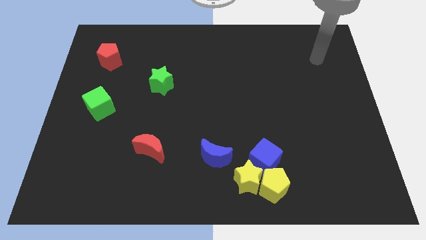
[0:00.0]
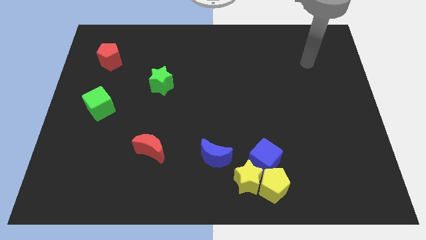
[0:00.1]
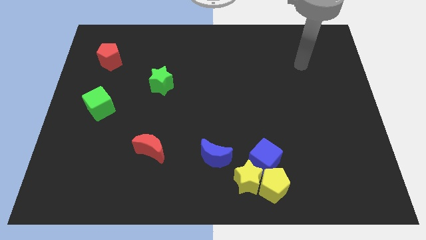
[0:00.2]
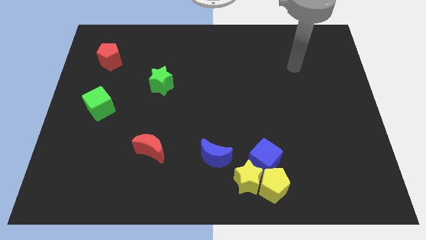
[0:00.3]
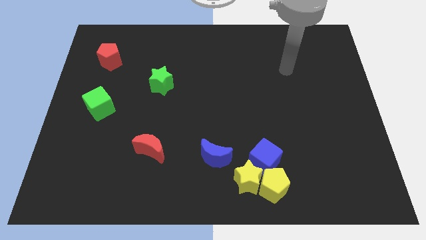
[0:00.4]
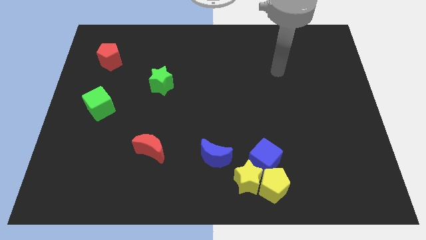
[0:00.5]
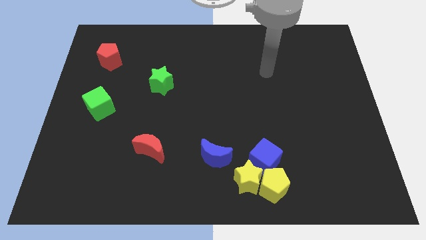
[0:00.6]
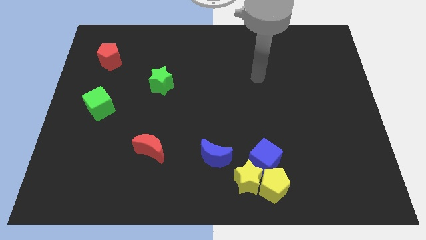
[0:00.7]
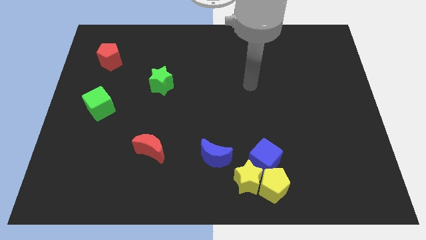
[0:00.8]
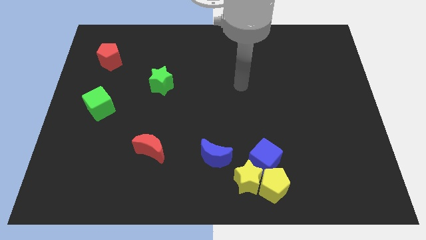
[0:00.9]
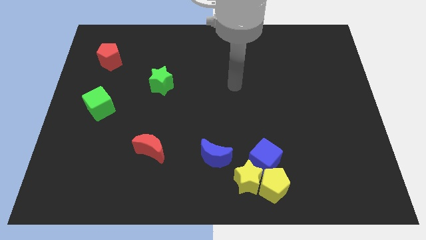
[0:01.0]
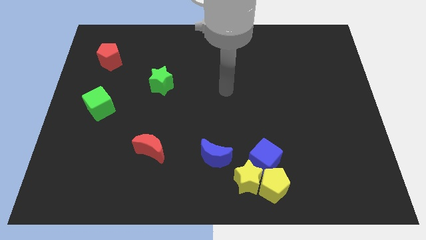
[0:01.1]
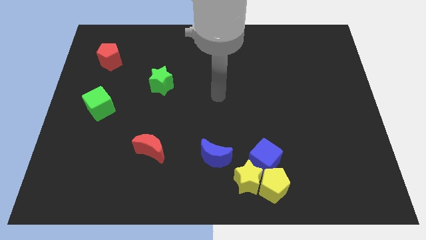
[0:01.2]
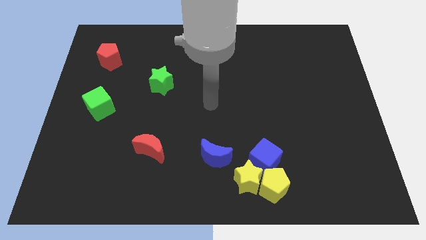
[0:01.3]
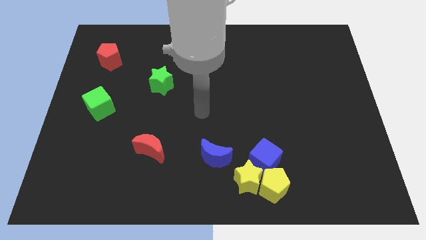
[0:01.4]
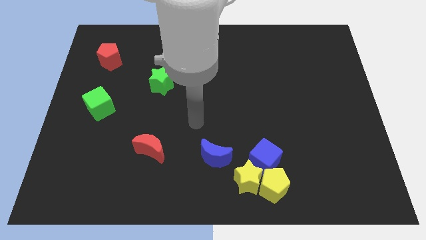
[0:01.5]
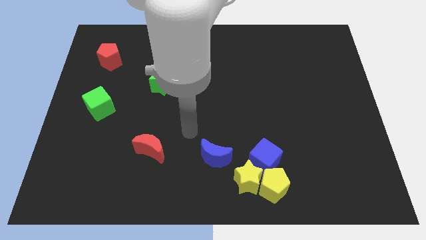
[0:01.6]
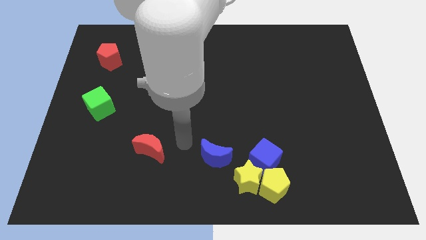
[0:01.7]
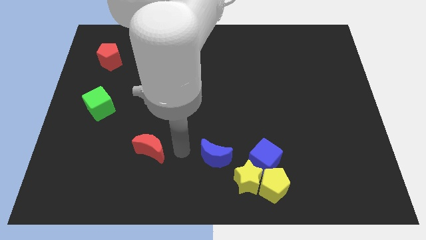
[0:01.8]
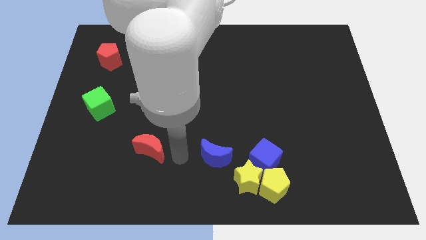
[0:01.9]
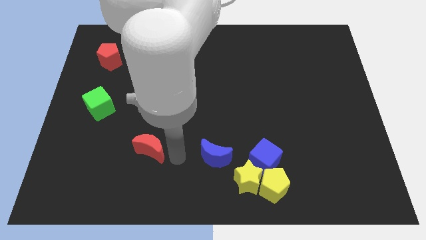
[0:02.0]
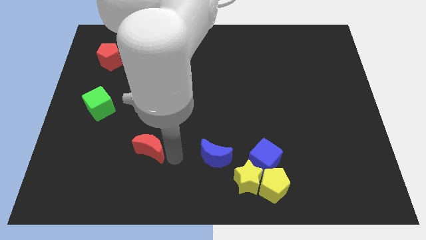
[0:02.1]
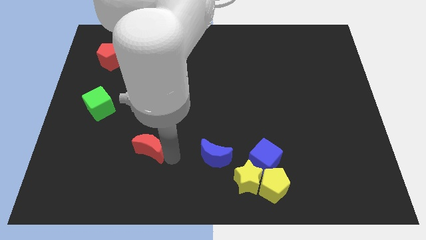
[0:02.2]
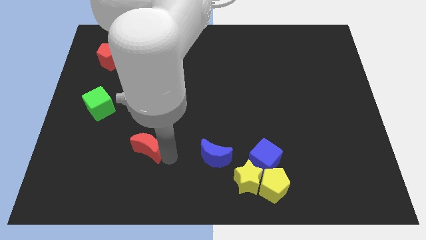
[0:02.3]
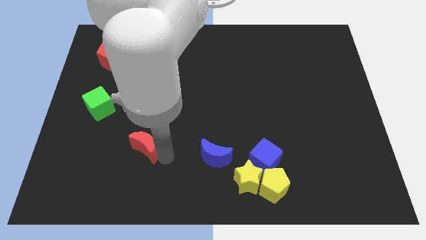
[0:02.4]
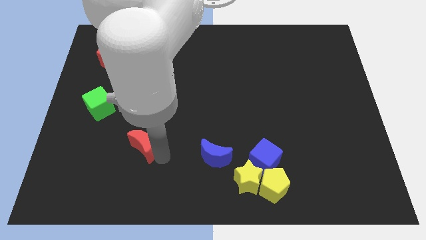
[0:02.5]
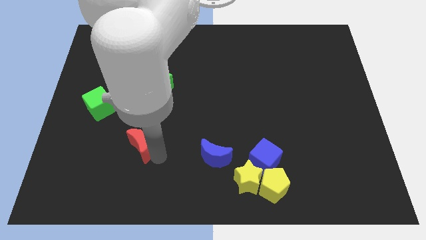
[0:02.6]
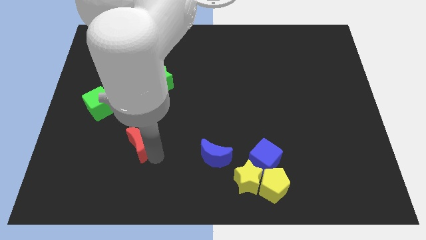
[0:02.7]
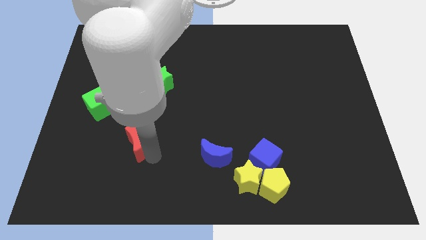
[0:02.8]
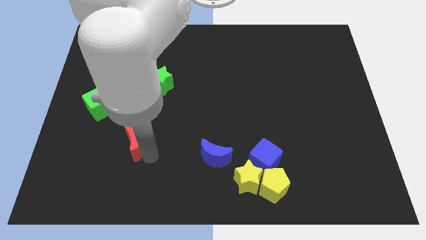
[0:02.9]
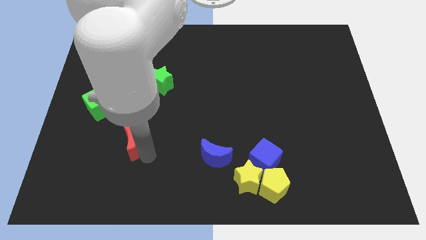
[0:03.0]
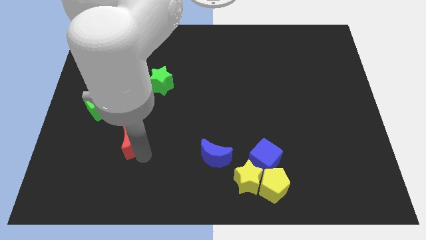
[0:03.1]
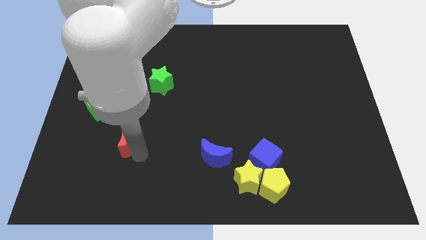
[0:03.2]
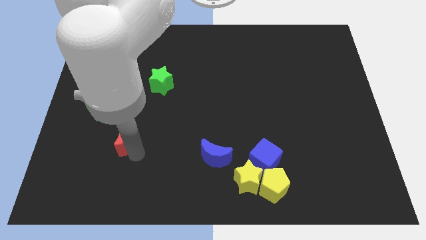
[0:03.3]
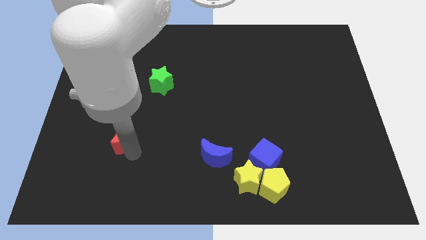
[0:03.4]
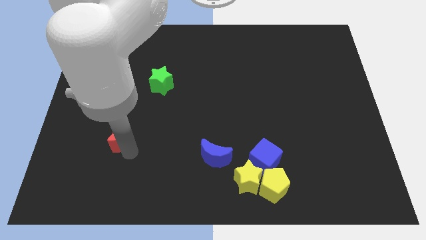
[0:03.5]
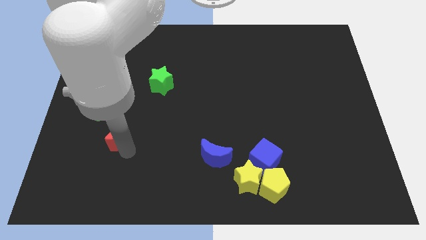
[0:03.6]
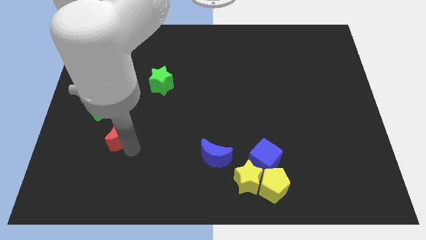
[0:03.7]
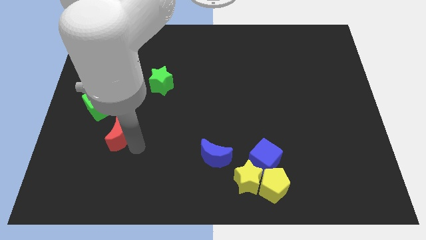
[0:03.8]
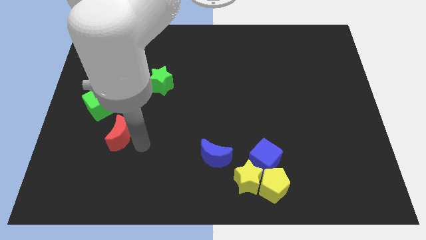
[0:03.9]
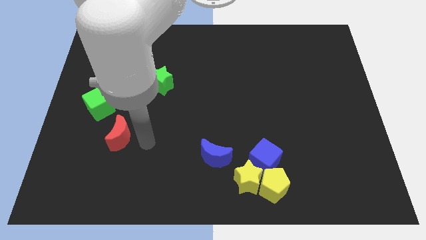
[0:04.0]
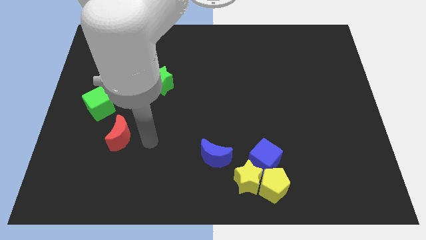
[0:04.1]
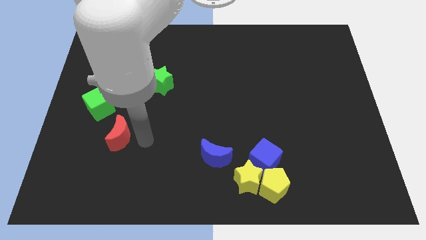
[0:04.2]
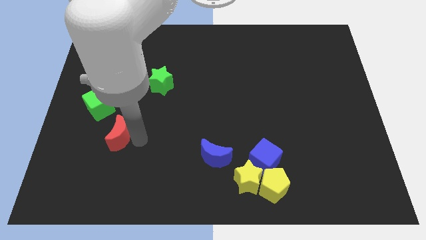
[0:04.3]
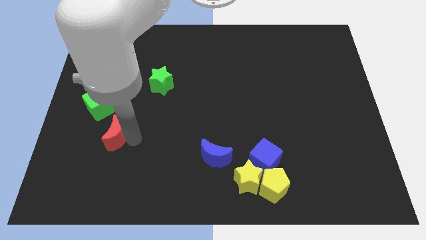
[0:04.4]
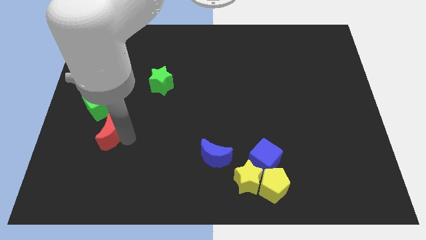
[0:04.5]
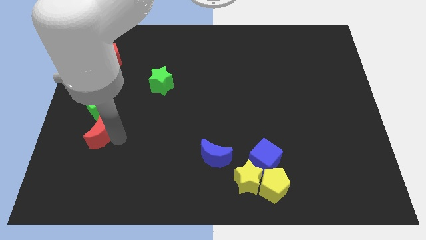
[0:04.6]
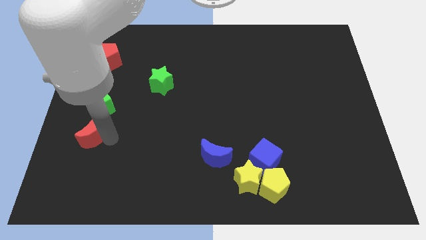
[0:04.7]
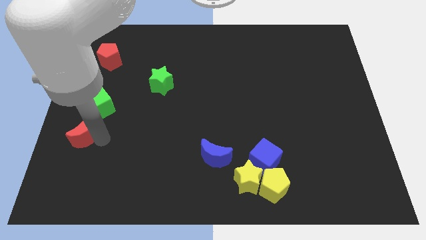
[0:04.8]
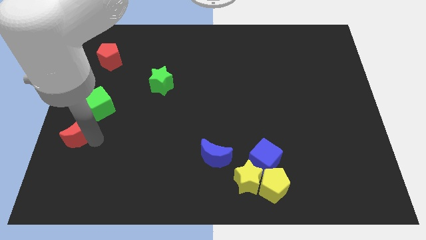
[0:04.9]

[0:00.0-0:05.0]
push the red moon to the center left

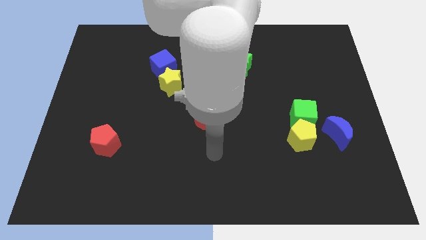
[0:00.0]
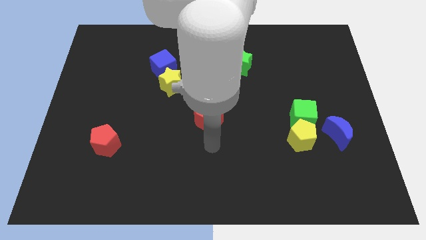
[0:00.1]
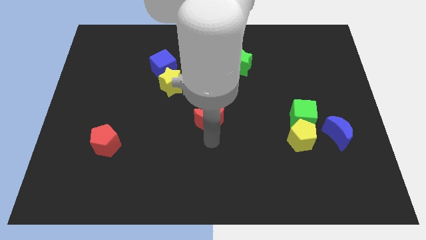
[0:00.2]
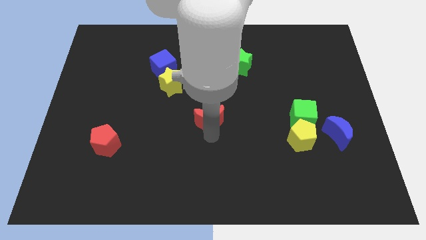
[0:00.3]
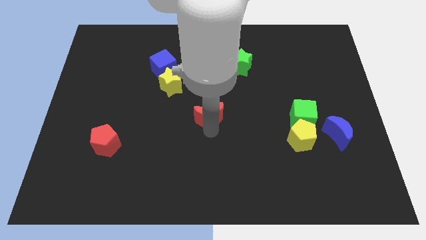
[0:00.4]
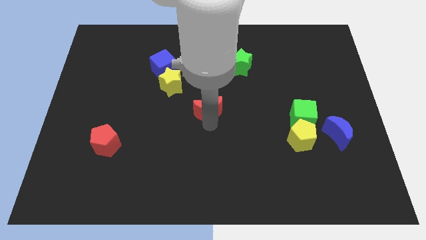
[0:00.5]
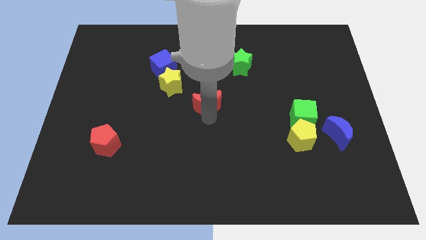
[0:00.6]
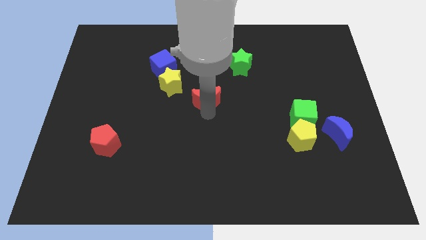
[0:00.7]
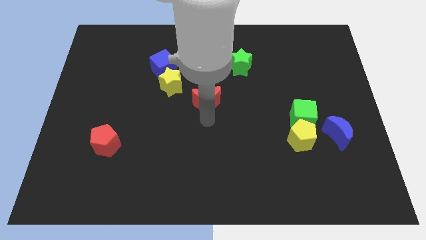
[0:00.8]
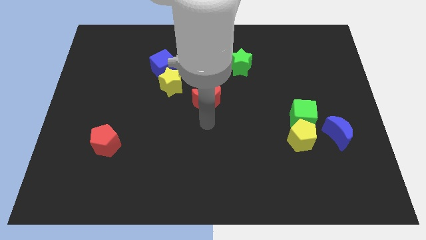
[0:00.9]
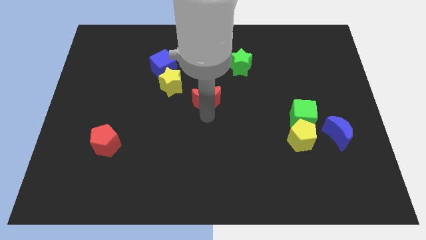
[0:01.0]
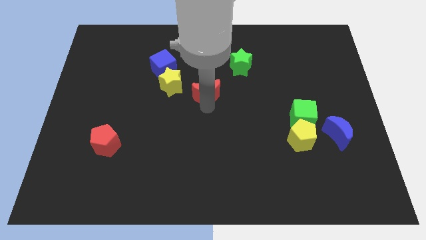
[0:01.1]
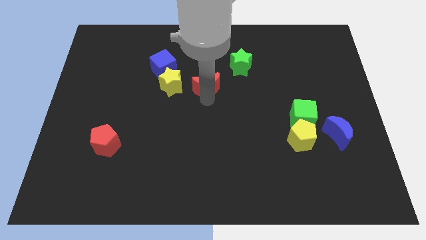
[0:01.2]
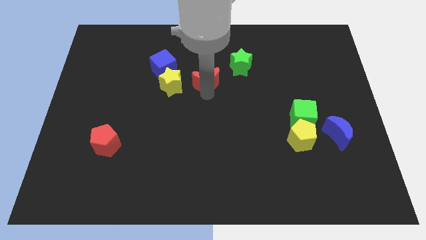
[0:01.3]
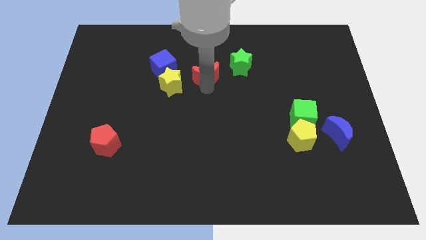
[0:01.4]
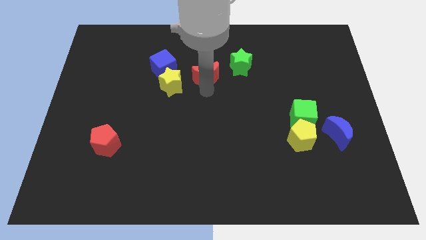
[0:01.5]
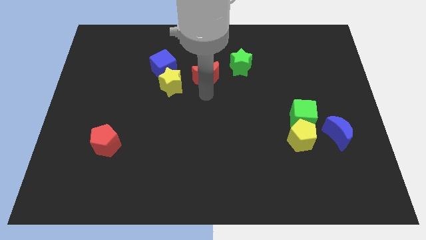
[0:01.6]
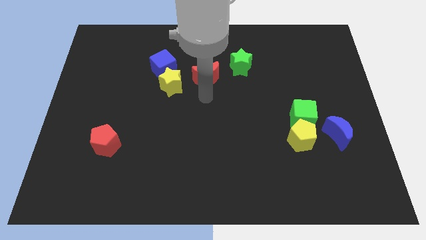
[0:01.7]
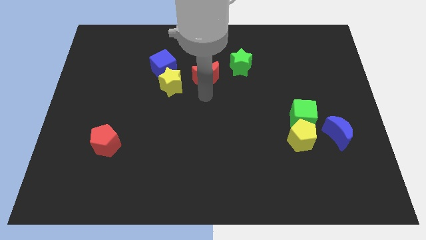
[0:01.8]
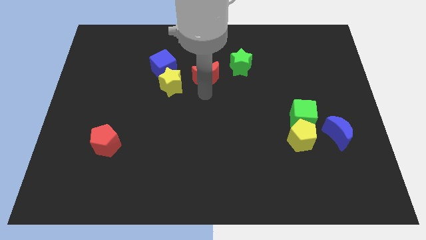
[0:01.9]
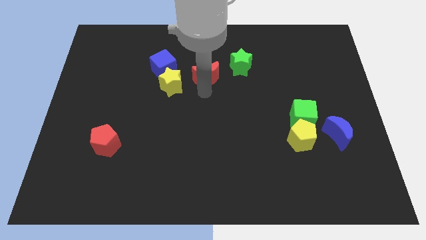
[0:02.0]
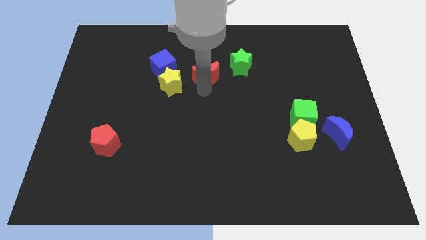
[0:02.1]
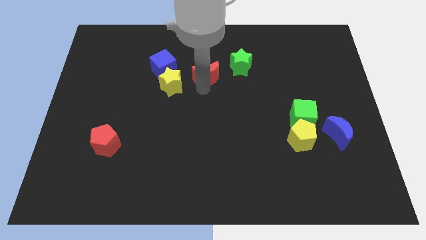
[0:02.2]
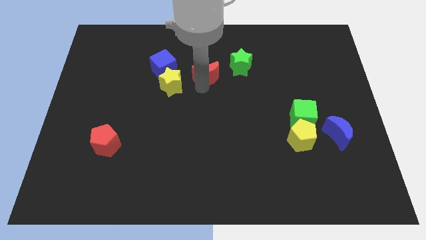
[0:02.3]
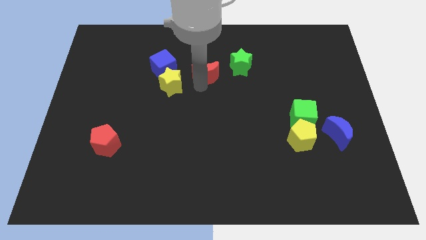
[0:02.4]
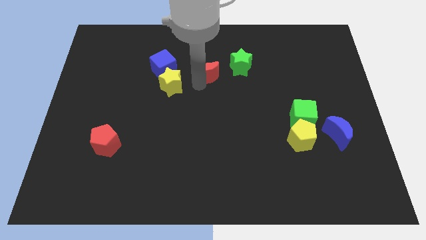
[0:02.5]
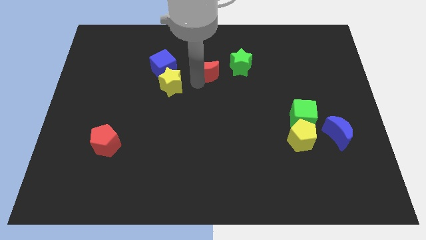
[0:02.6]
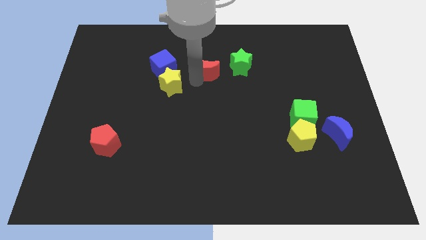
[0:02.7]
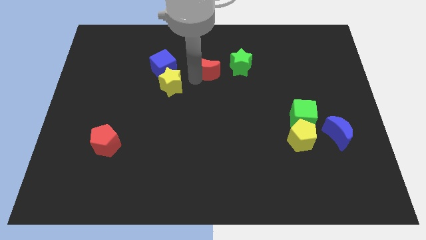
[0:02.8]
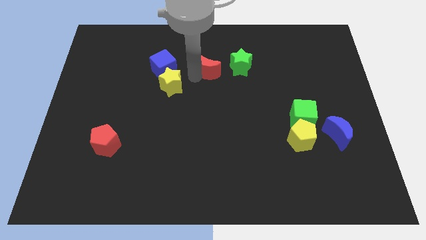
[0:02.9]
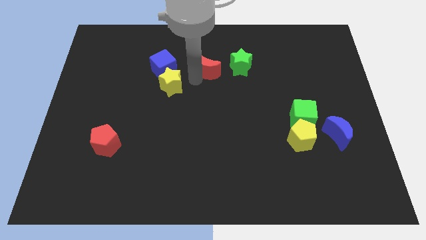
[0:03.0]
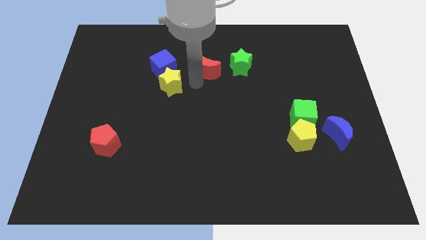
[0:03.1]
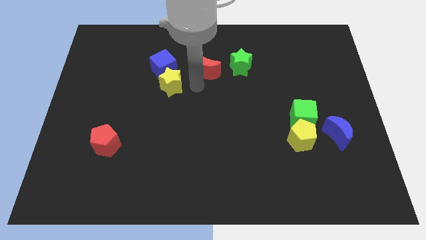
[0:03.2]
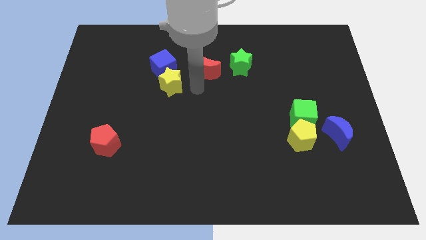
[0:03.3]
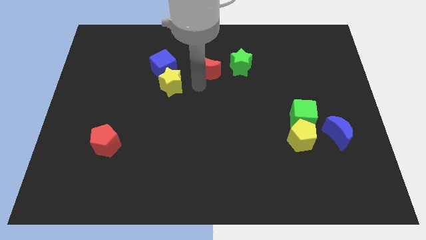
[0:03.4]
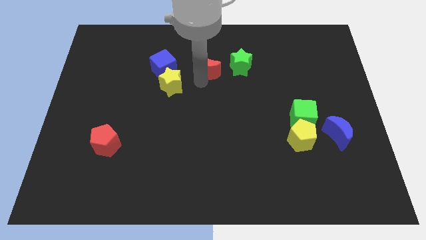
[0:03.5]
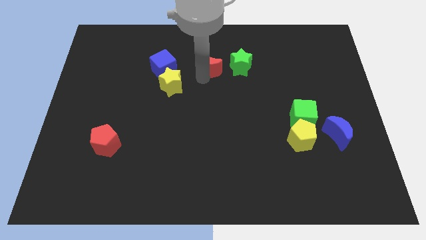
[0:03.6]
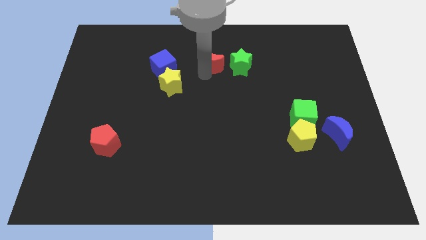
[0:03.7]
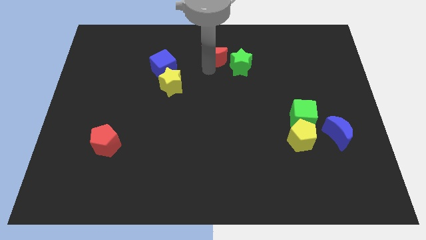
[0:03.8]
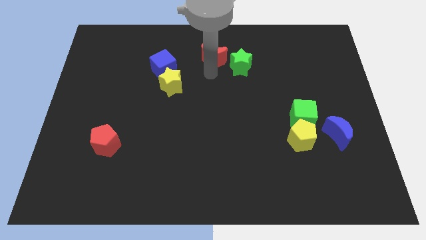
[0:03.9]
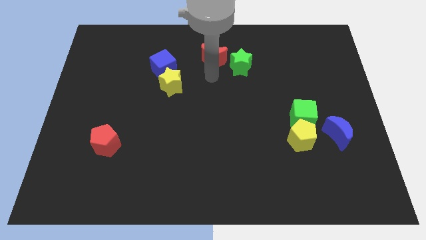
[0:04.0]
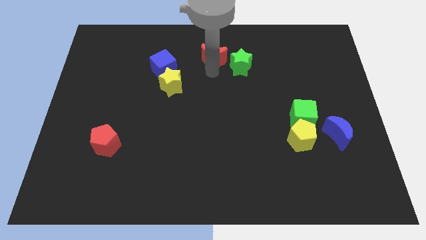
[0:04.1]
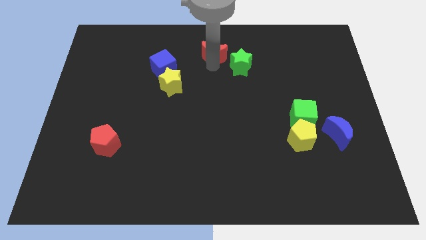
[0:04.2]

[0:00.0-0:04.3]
put the red moon to the top
